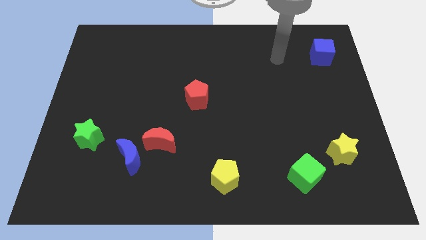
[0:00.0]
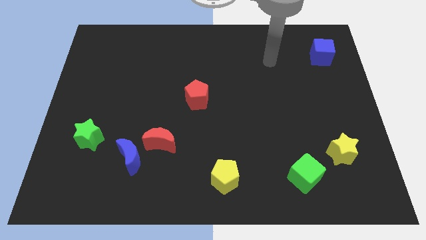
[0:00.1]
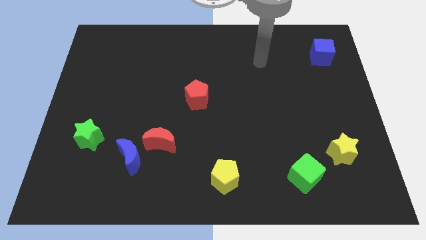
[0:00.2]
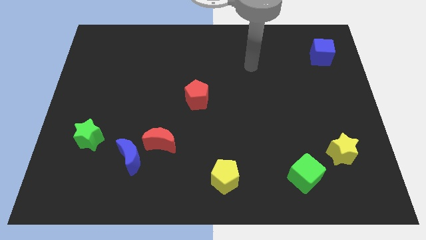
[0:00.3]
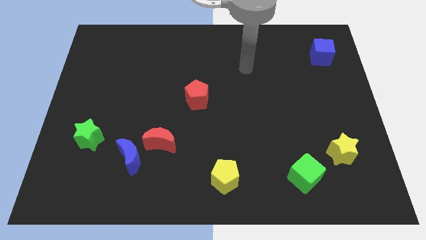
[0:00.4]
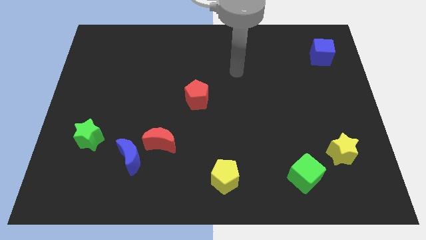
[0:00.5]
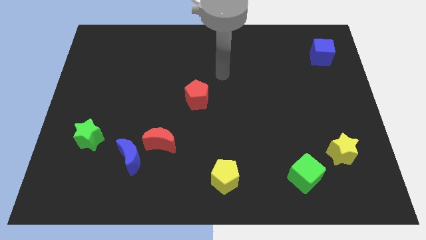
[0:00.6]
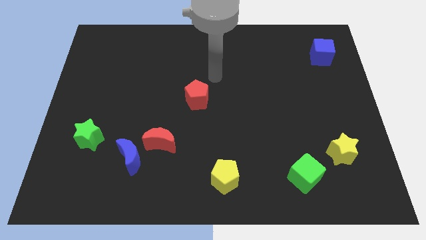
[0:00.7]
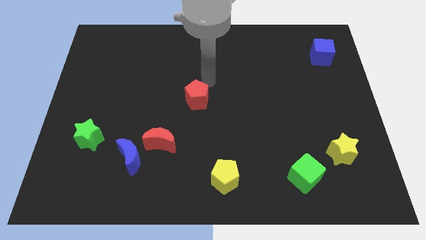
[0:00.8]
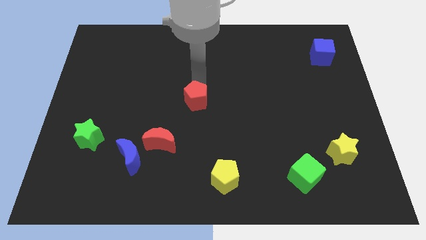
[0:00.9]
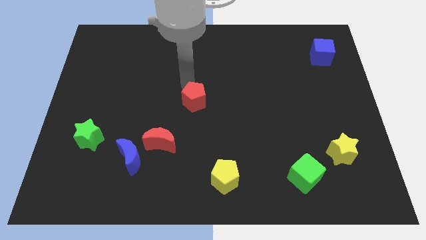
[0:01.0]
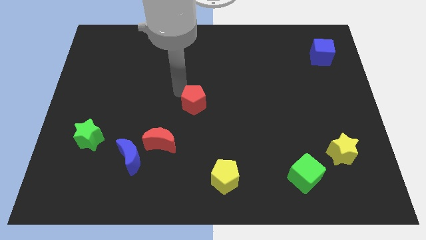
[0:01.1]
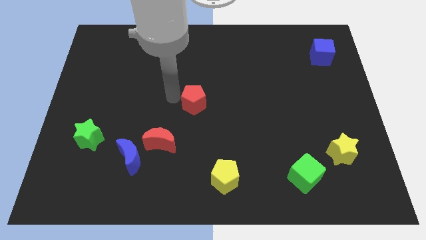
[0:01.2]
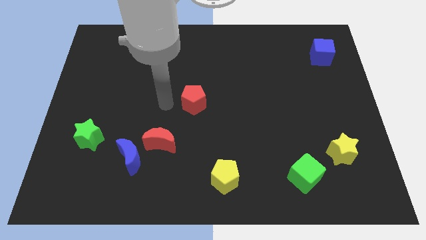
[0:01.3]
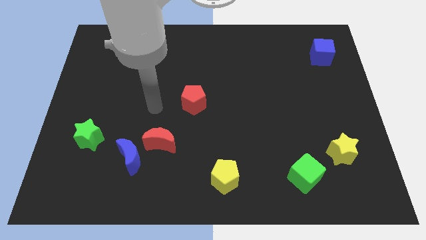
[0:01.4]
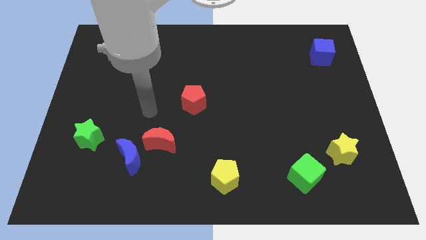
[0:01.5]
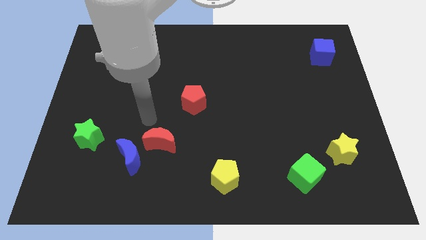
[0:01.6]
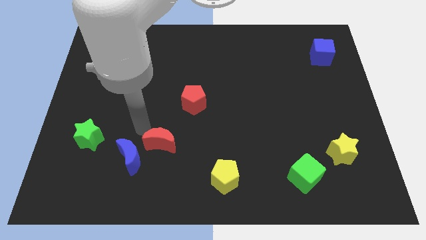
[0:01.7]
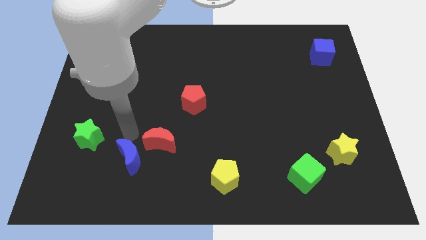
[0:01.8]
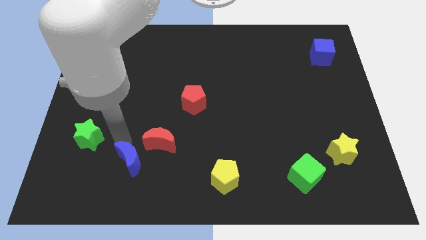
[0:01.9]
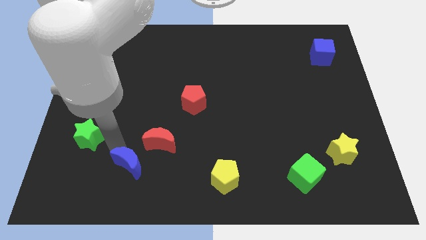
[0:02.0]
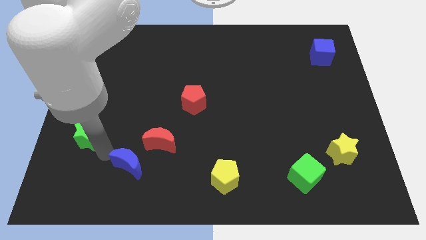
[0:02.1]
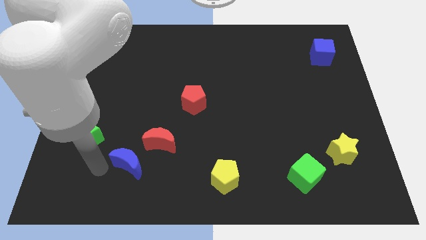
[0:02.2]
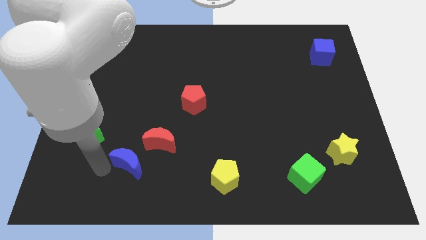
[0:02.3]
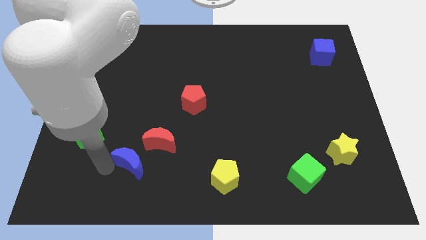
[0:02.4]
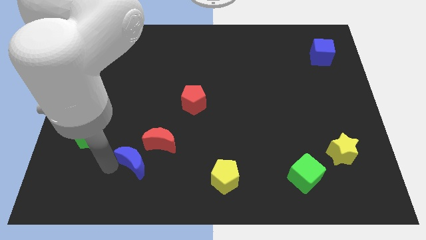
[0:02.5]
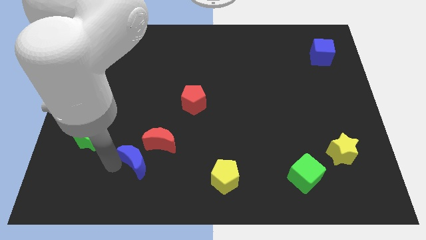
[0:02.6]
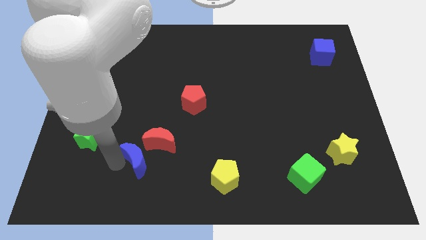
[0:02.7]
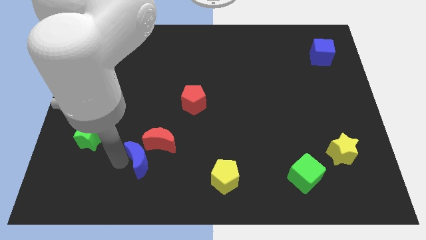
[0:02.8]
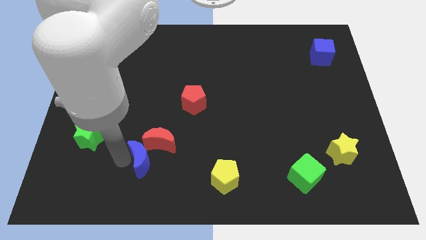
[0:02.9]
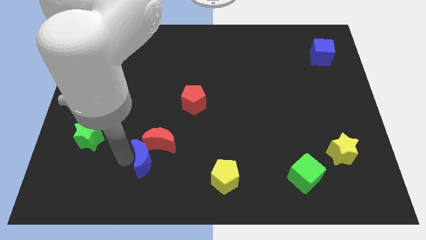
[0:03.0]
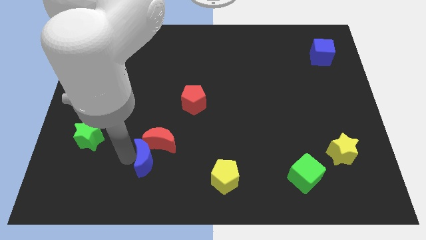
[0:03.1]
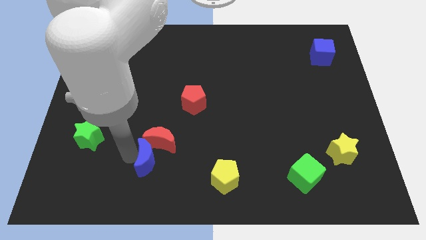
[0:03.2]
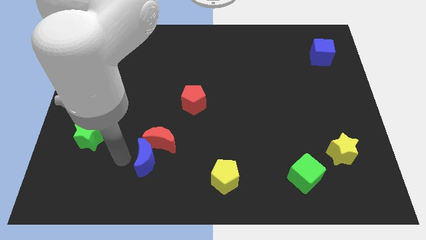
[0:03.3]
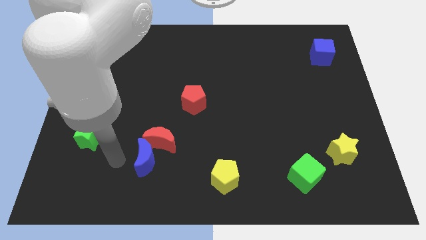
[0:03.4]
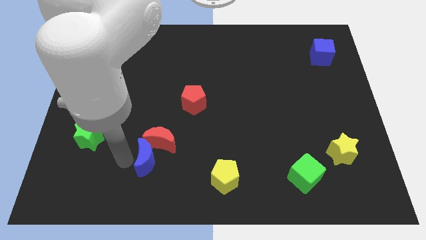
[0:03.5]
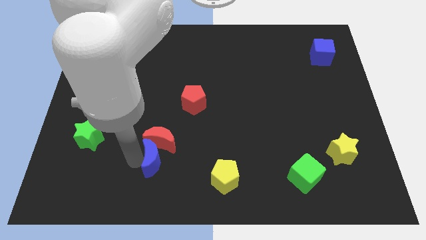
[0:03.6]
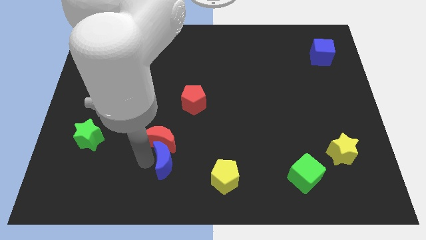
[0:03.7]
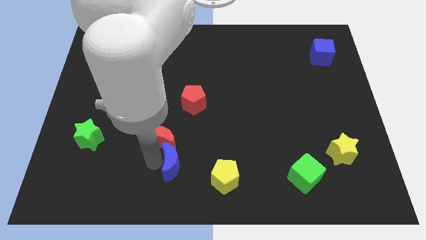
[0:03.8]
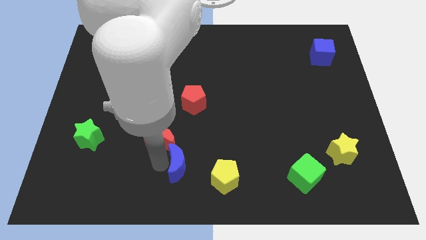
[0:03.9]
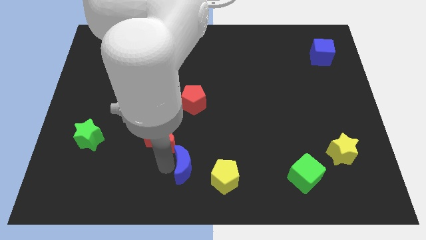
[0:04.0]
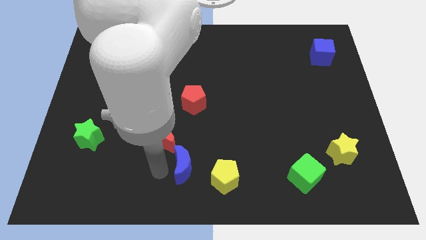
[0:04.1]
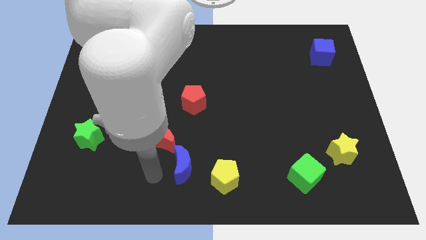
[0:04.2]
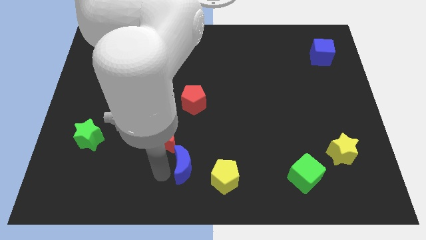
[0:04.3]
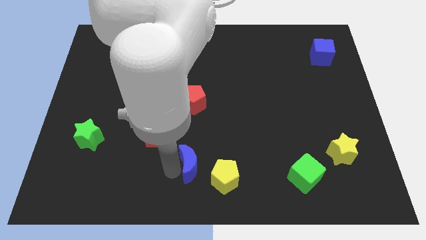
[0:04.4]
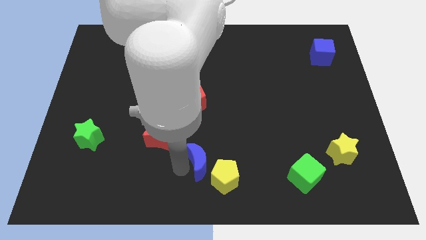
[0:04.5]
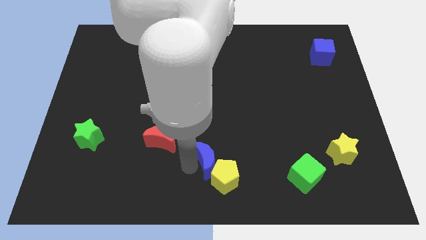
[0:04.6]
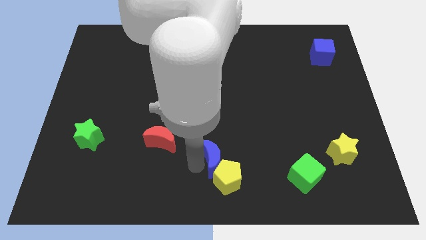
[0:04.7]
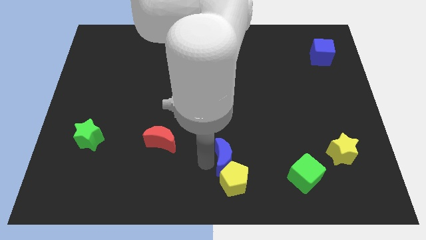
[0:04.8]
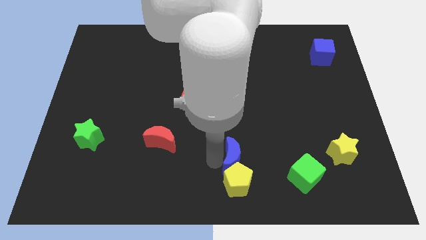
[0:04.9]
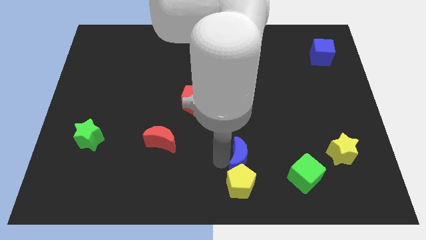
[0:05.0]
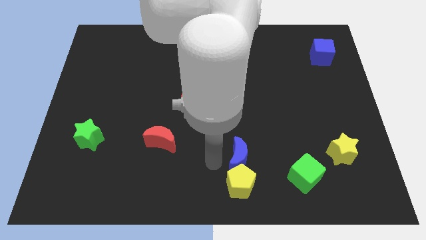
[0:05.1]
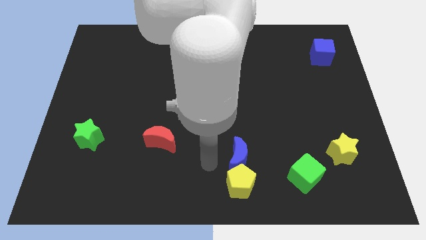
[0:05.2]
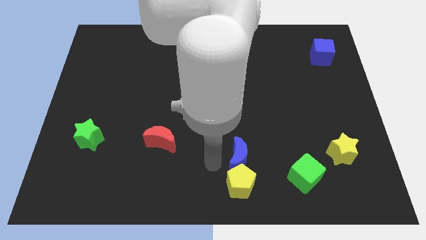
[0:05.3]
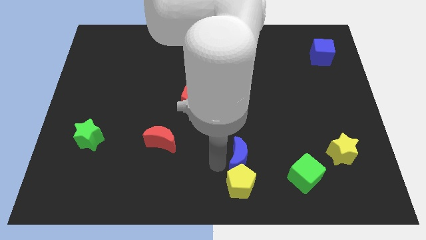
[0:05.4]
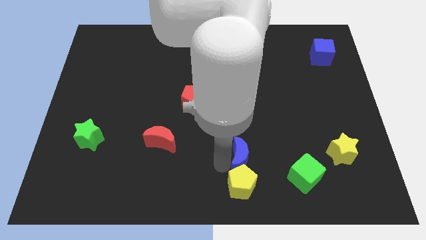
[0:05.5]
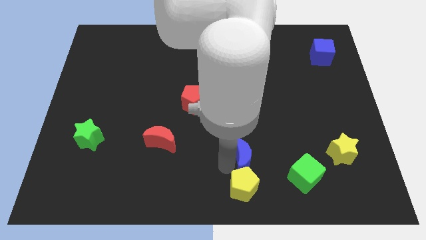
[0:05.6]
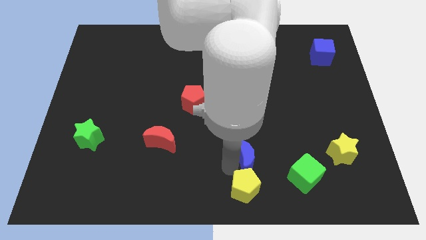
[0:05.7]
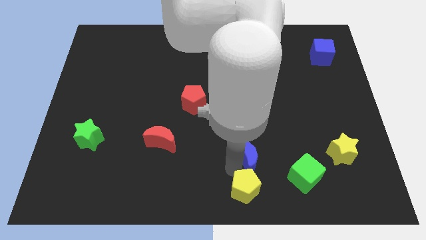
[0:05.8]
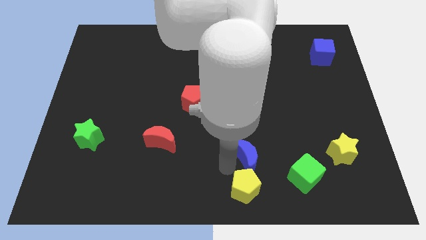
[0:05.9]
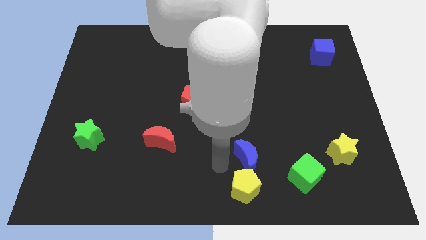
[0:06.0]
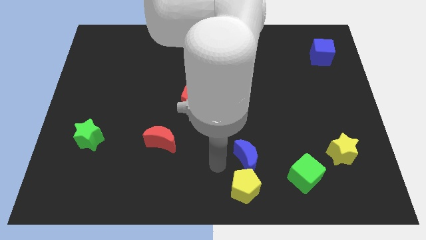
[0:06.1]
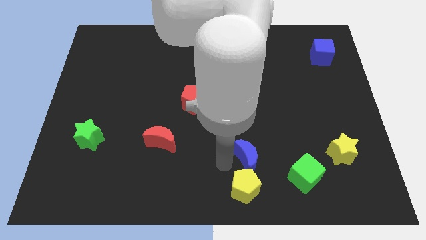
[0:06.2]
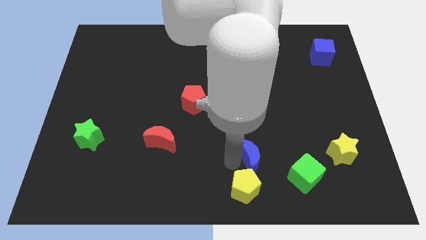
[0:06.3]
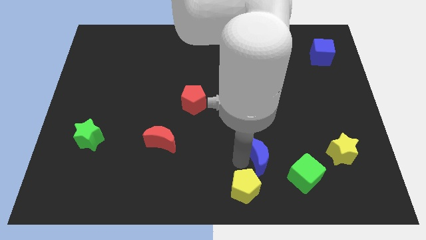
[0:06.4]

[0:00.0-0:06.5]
slide the blue moon to the top left side of the green cube
